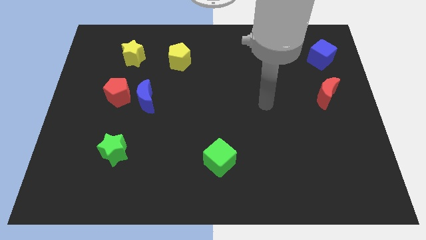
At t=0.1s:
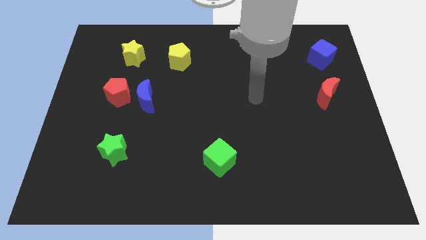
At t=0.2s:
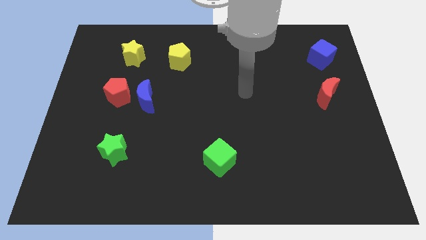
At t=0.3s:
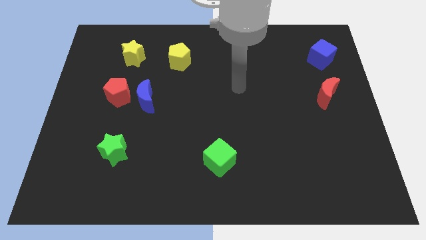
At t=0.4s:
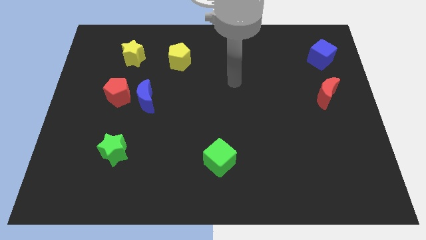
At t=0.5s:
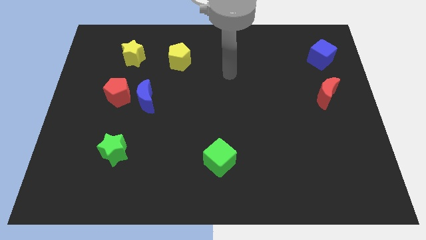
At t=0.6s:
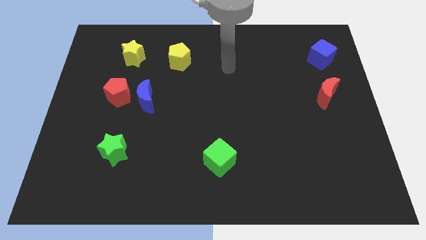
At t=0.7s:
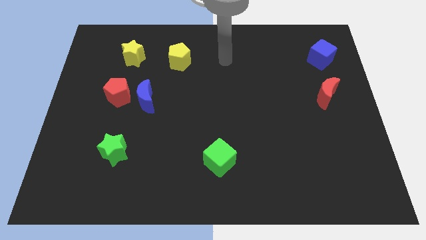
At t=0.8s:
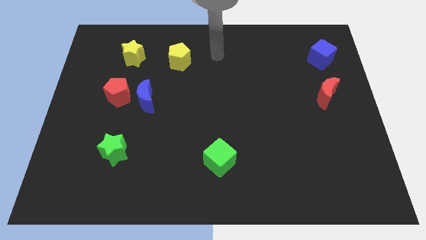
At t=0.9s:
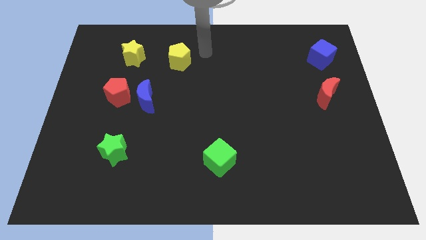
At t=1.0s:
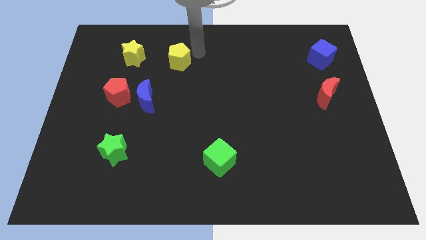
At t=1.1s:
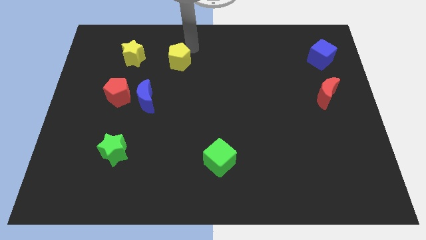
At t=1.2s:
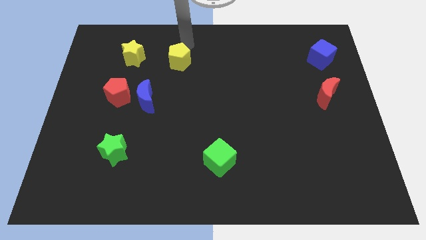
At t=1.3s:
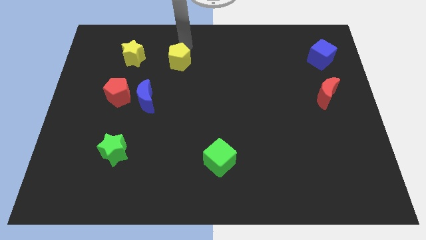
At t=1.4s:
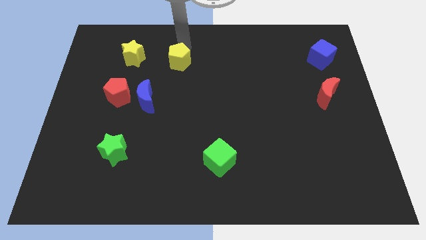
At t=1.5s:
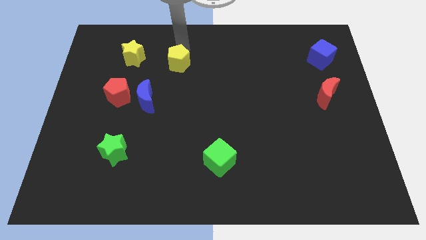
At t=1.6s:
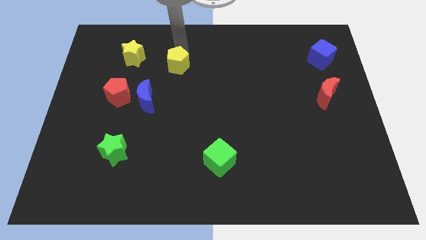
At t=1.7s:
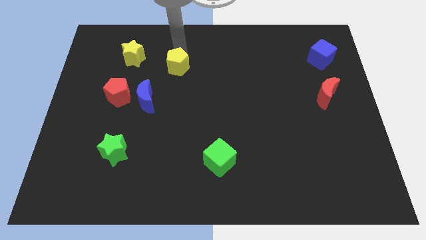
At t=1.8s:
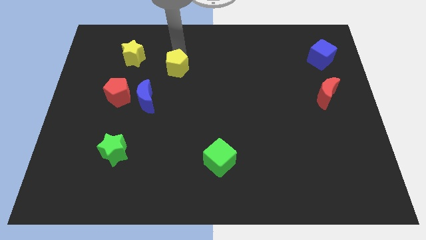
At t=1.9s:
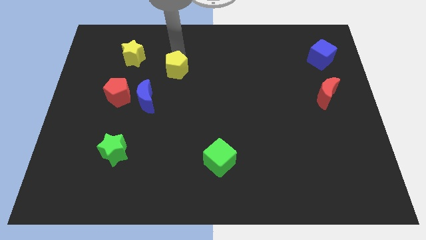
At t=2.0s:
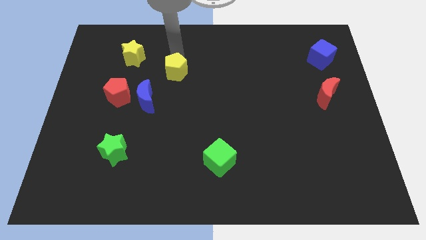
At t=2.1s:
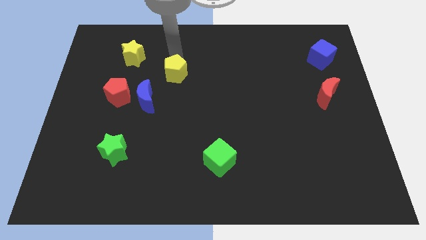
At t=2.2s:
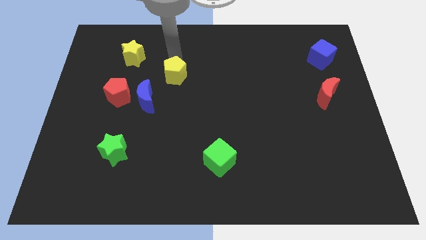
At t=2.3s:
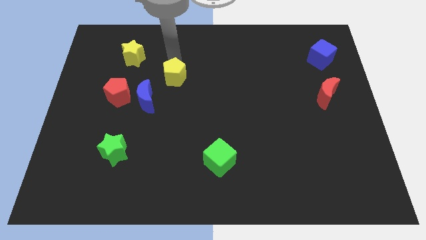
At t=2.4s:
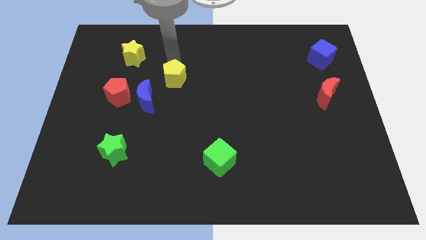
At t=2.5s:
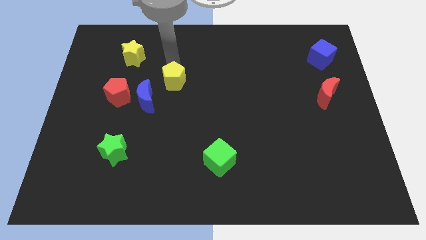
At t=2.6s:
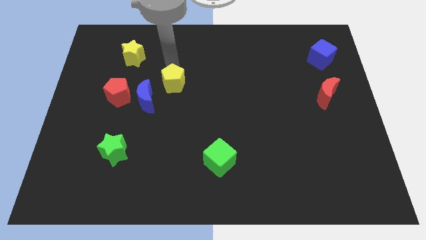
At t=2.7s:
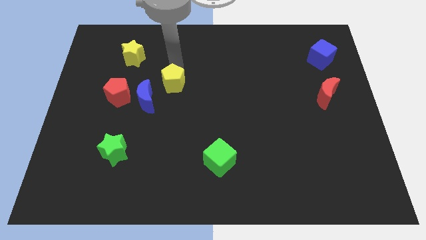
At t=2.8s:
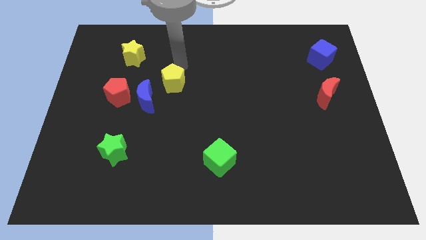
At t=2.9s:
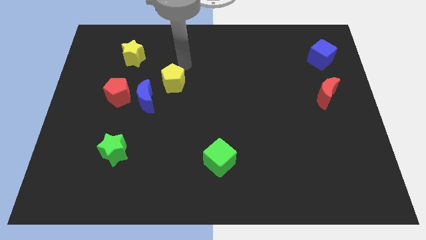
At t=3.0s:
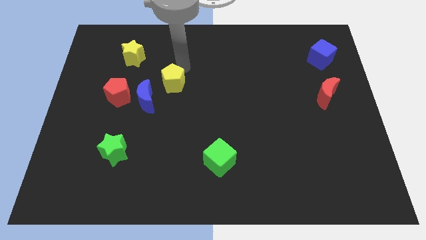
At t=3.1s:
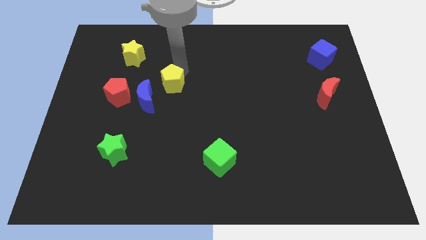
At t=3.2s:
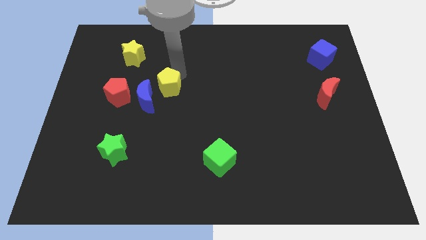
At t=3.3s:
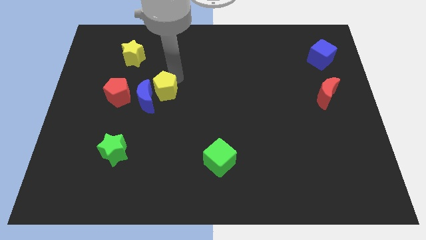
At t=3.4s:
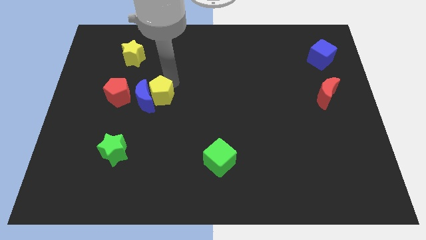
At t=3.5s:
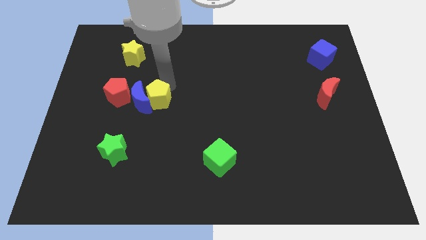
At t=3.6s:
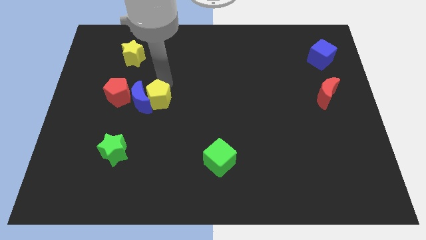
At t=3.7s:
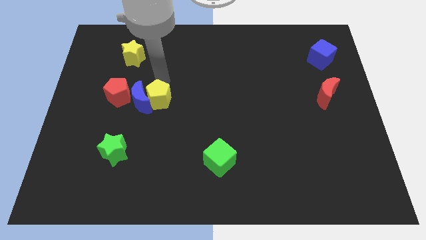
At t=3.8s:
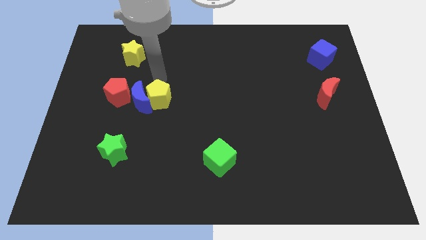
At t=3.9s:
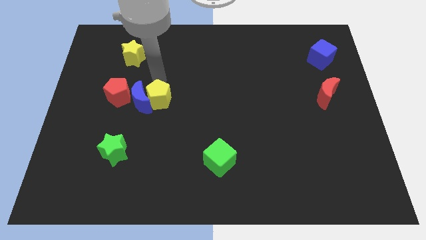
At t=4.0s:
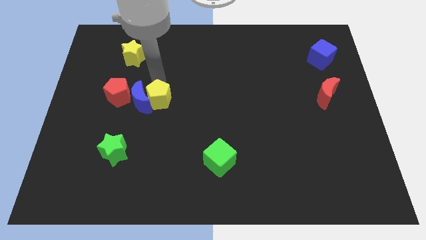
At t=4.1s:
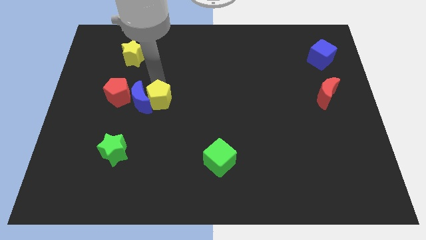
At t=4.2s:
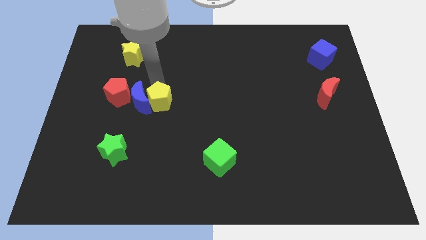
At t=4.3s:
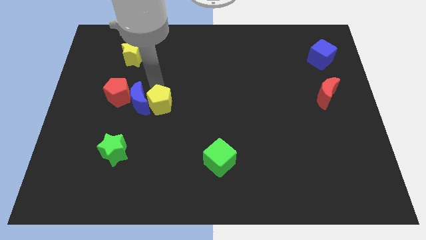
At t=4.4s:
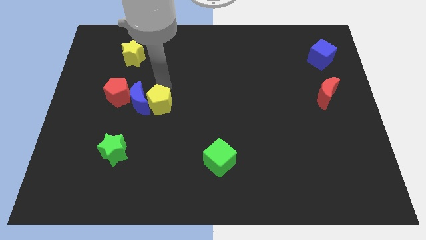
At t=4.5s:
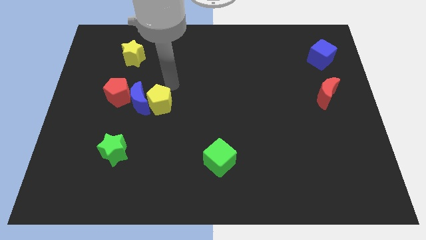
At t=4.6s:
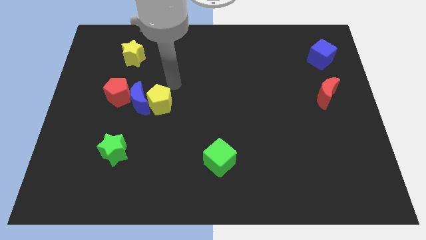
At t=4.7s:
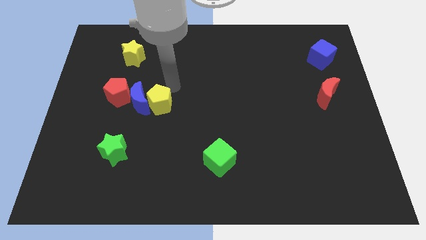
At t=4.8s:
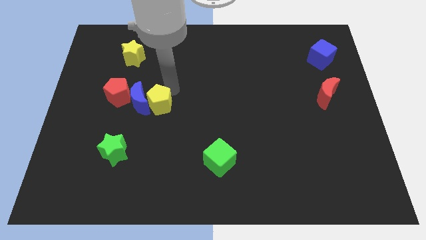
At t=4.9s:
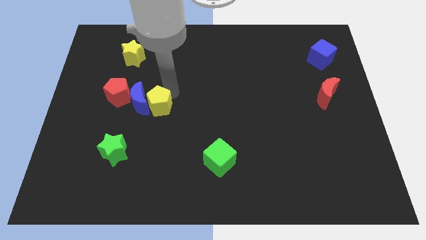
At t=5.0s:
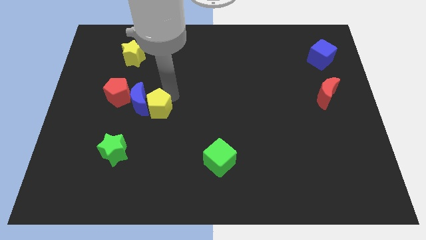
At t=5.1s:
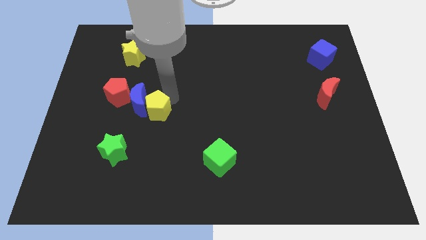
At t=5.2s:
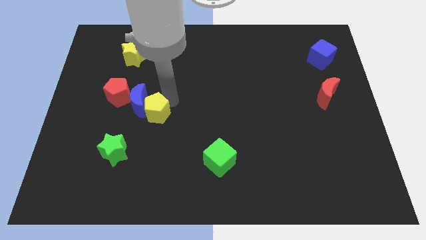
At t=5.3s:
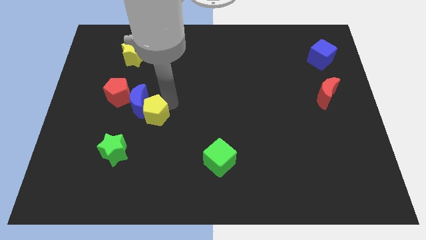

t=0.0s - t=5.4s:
slide the yellow pentagon to the top right side of the green star

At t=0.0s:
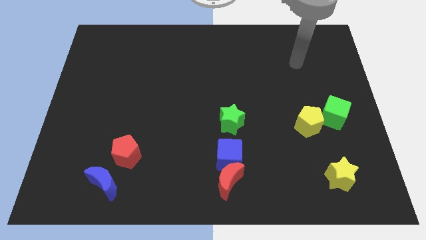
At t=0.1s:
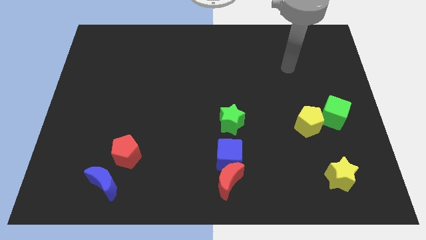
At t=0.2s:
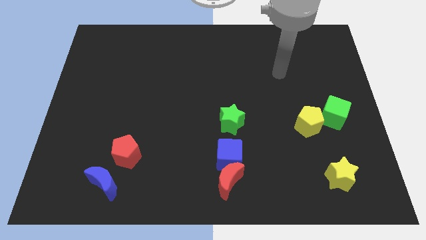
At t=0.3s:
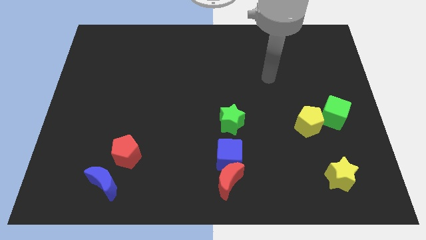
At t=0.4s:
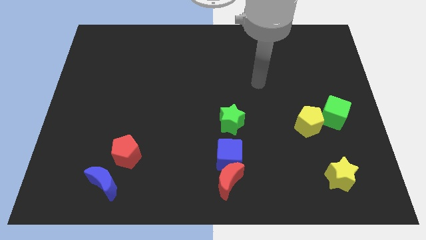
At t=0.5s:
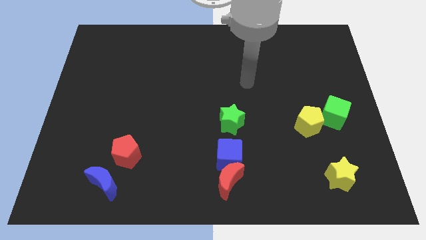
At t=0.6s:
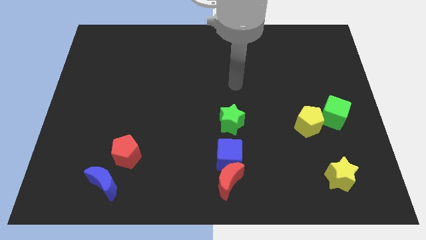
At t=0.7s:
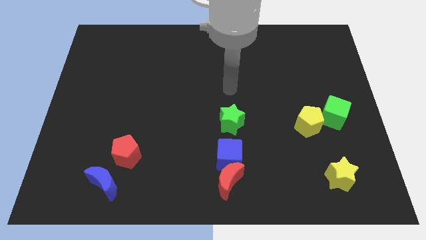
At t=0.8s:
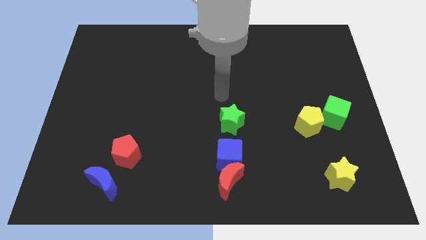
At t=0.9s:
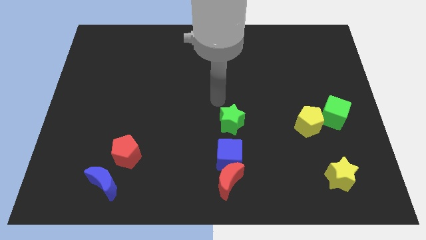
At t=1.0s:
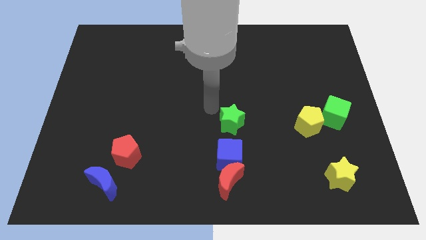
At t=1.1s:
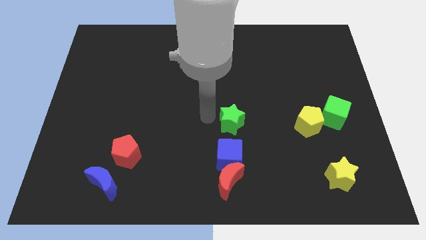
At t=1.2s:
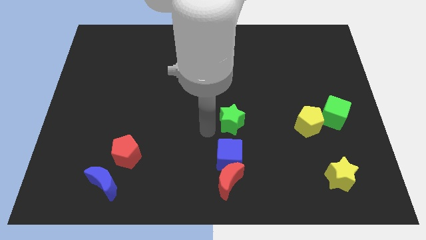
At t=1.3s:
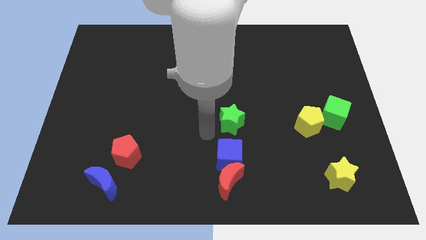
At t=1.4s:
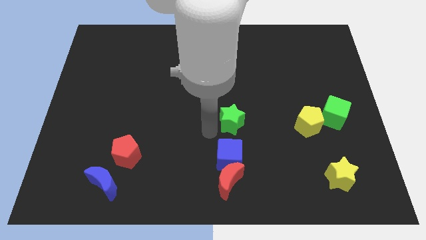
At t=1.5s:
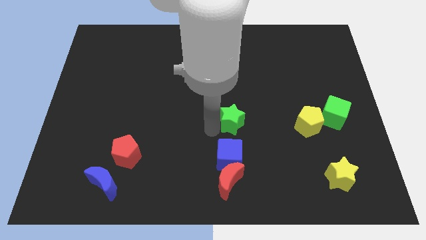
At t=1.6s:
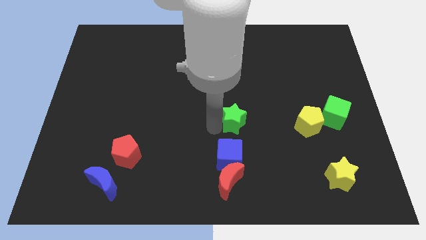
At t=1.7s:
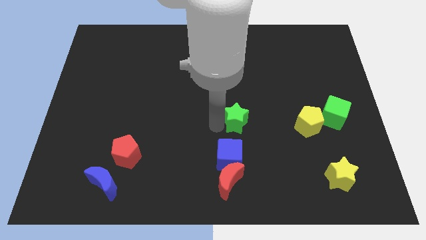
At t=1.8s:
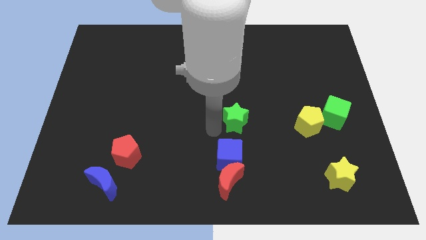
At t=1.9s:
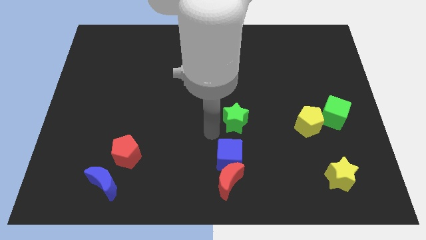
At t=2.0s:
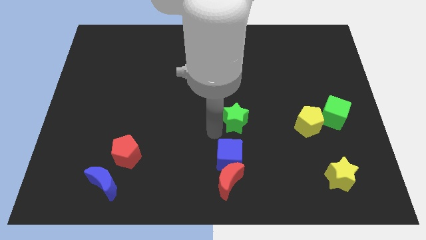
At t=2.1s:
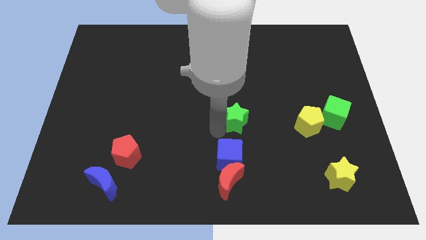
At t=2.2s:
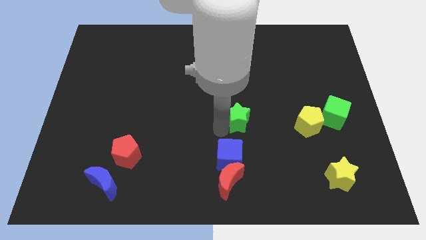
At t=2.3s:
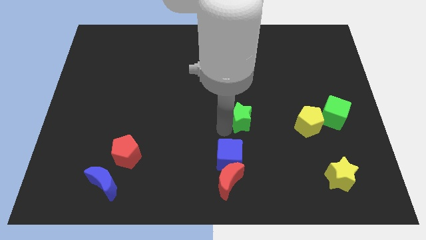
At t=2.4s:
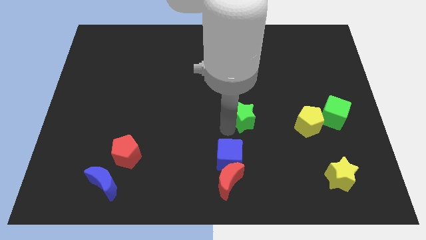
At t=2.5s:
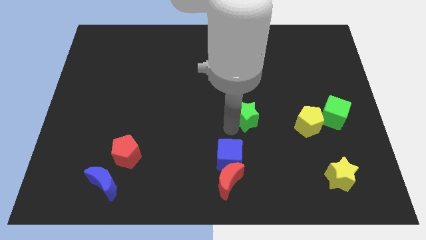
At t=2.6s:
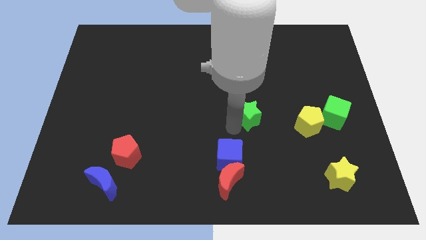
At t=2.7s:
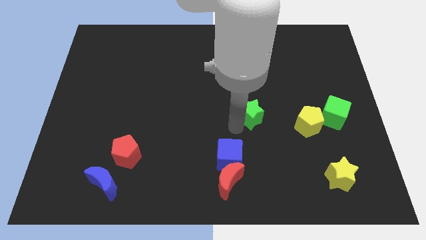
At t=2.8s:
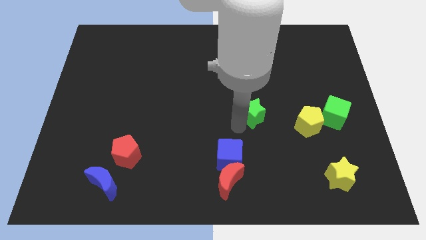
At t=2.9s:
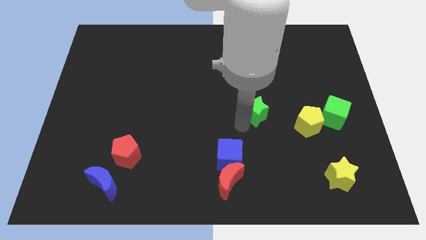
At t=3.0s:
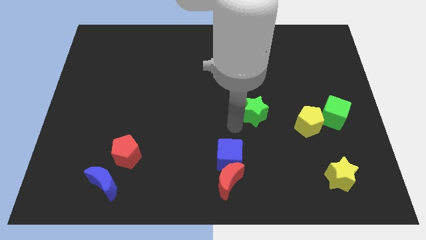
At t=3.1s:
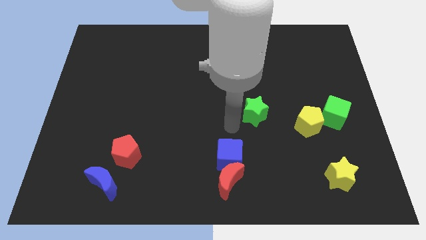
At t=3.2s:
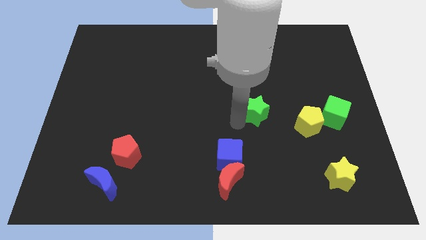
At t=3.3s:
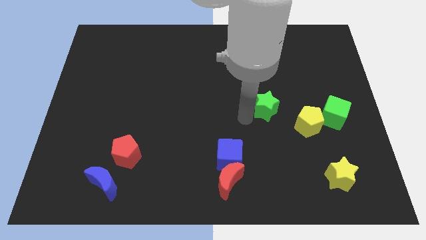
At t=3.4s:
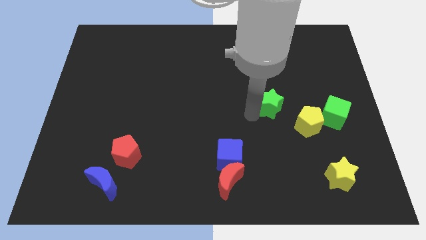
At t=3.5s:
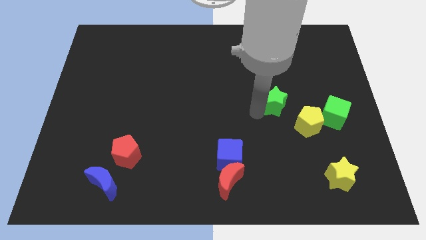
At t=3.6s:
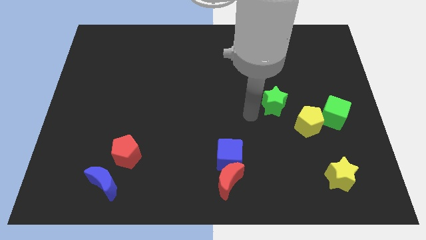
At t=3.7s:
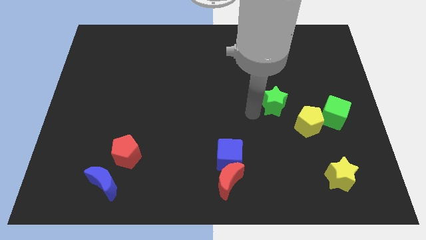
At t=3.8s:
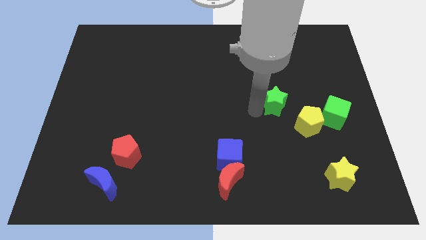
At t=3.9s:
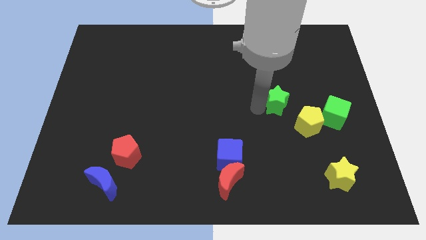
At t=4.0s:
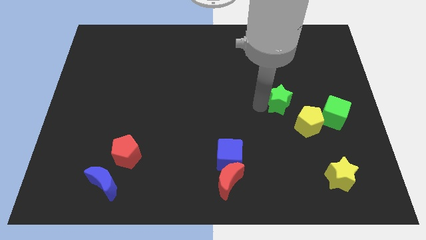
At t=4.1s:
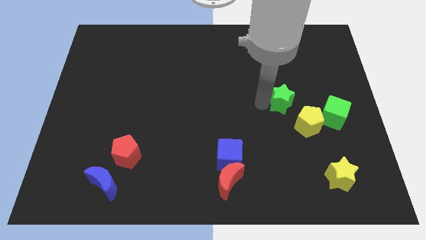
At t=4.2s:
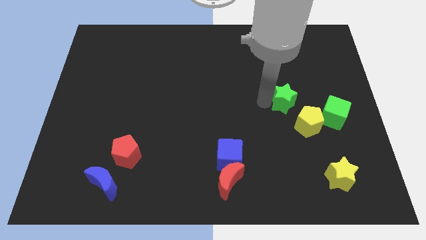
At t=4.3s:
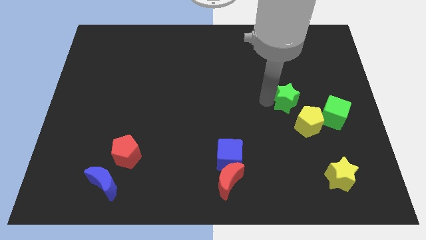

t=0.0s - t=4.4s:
push the green star above the yellow pentagon
